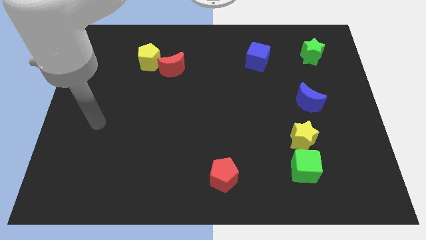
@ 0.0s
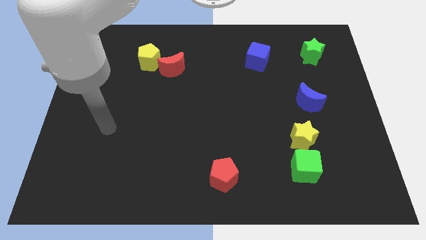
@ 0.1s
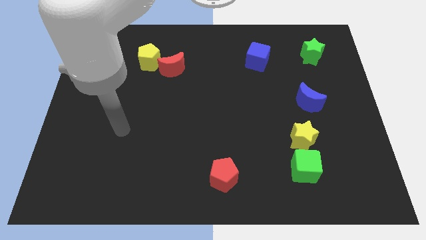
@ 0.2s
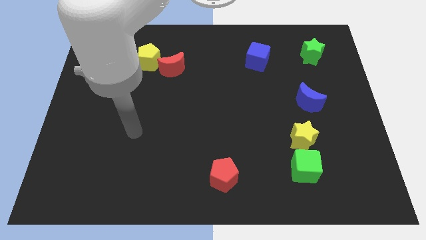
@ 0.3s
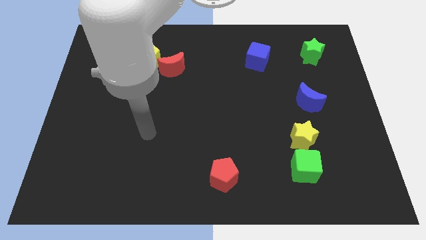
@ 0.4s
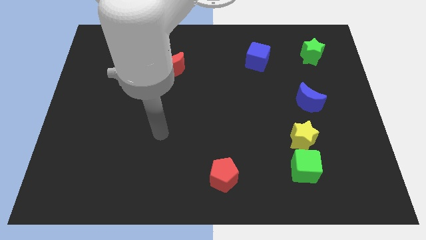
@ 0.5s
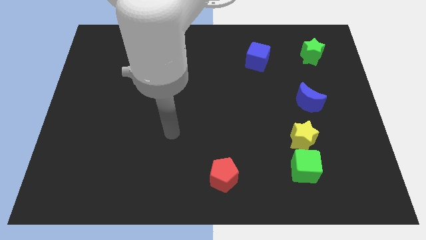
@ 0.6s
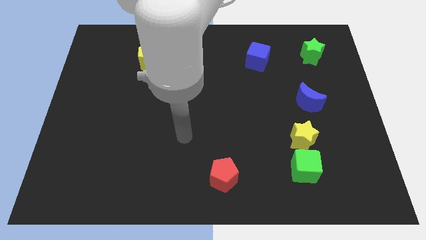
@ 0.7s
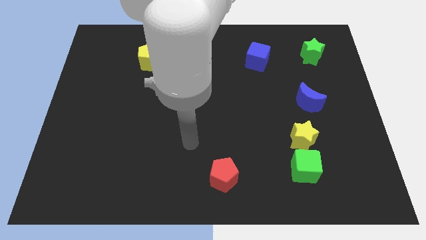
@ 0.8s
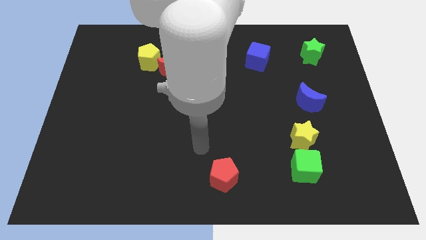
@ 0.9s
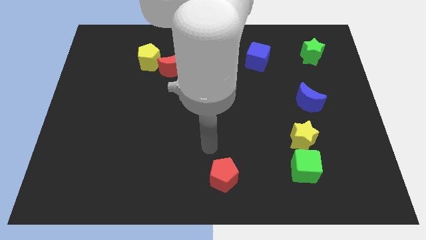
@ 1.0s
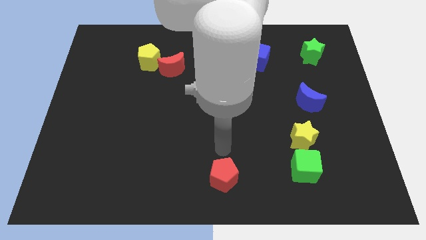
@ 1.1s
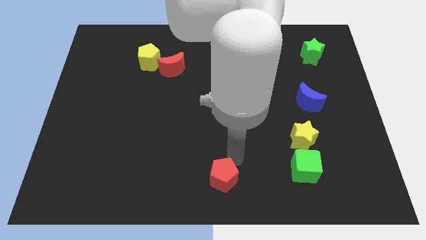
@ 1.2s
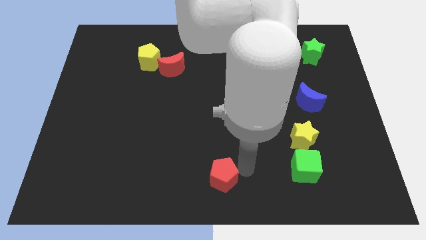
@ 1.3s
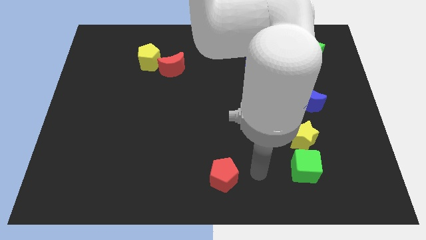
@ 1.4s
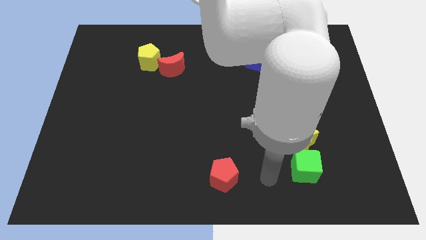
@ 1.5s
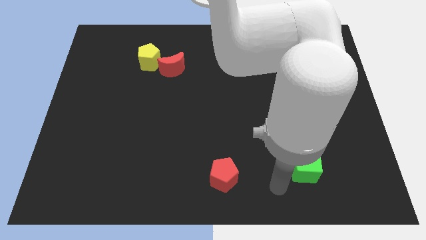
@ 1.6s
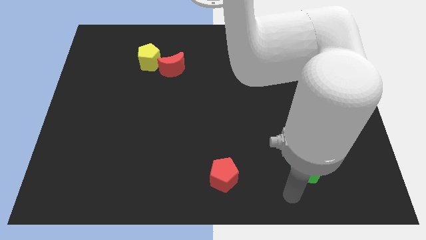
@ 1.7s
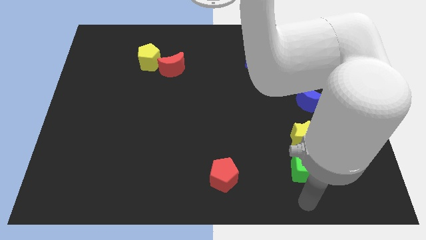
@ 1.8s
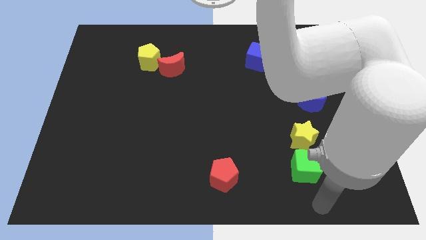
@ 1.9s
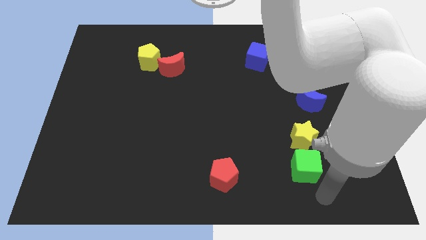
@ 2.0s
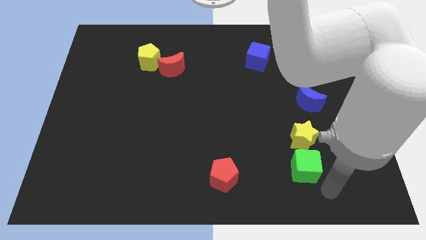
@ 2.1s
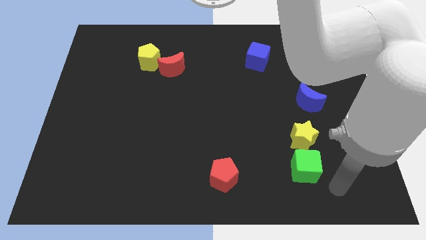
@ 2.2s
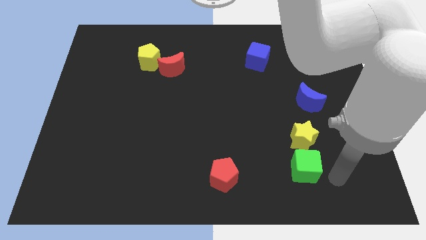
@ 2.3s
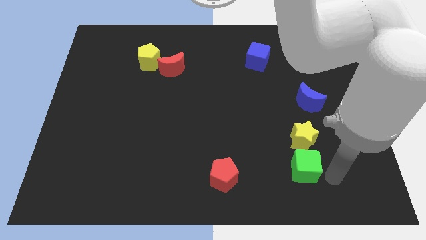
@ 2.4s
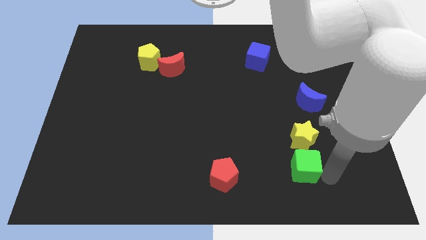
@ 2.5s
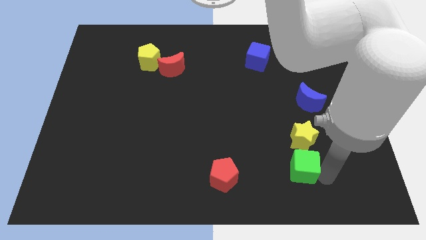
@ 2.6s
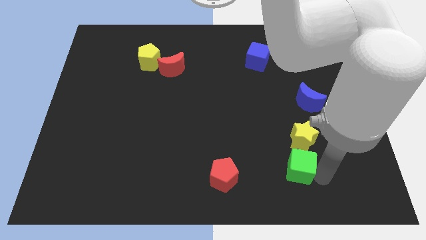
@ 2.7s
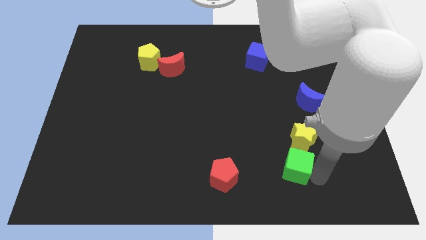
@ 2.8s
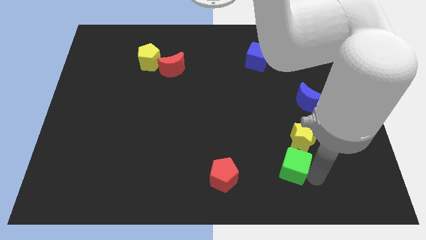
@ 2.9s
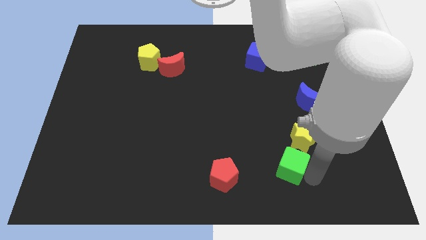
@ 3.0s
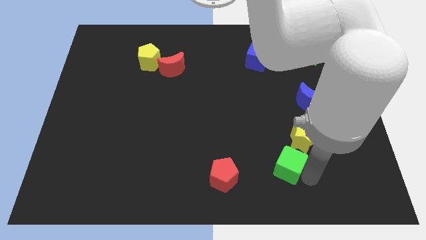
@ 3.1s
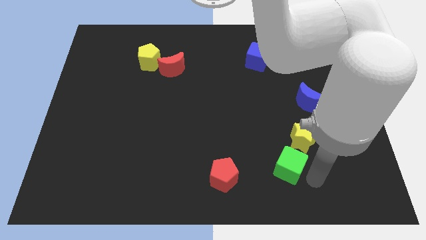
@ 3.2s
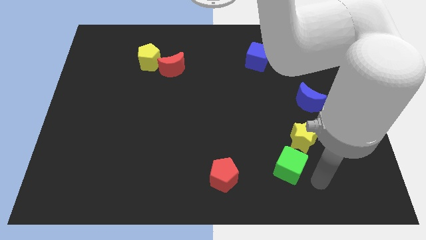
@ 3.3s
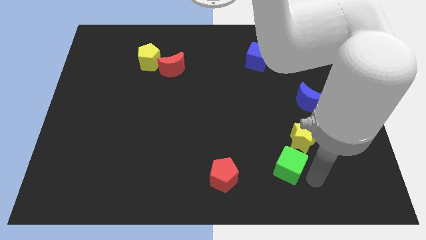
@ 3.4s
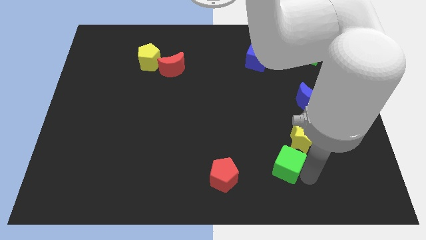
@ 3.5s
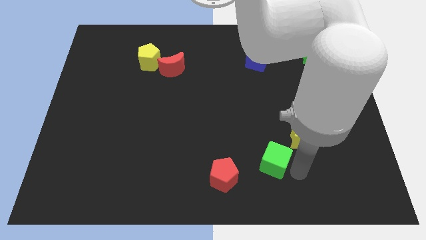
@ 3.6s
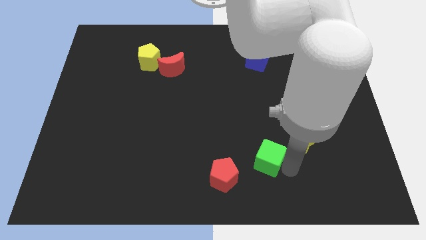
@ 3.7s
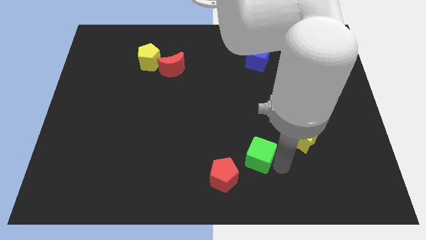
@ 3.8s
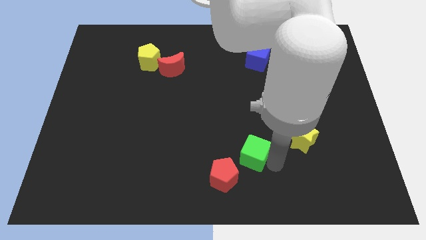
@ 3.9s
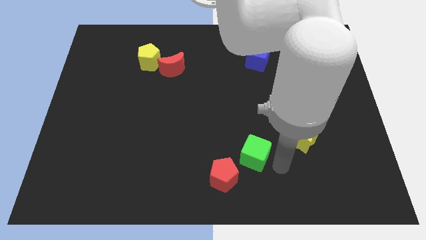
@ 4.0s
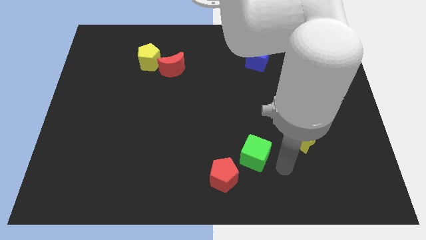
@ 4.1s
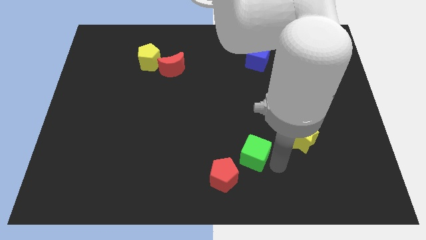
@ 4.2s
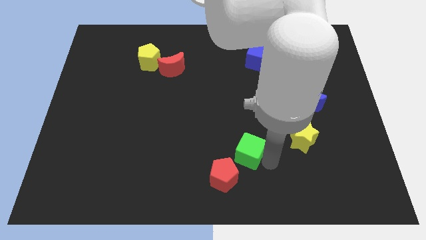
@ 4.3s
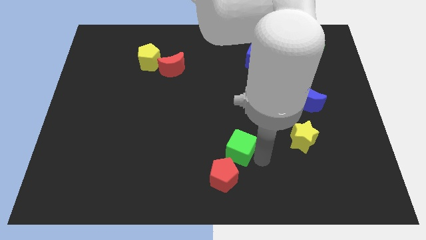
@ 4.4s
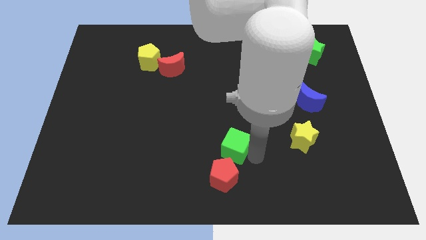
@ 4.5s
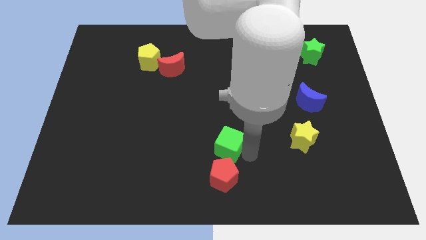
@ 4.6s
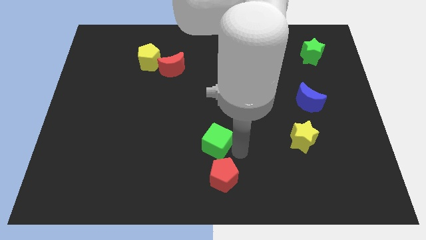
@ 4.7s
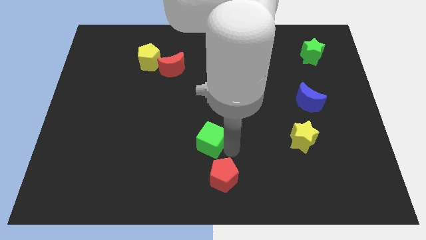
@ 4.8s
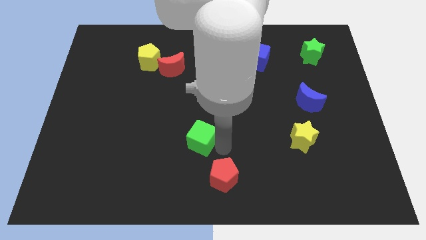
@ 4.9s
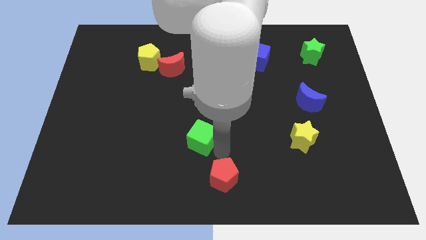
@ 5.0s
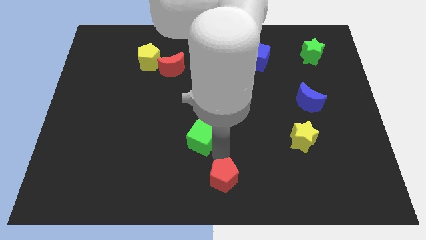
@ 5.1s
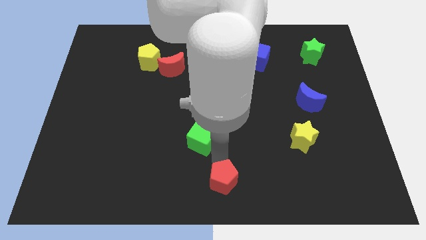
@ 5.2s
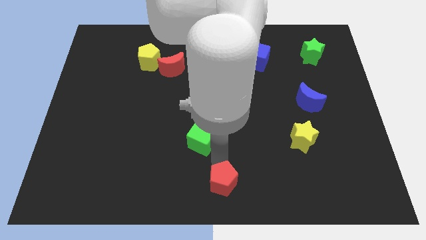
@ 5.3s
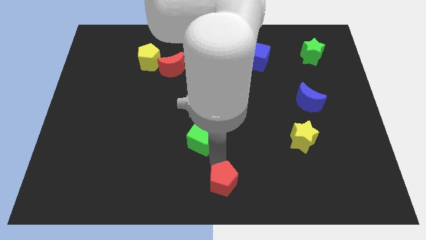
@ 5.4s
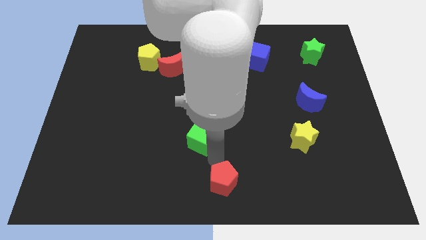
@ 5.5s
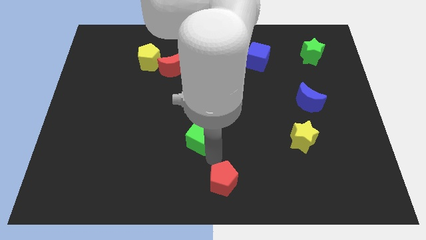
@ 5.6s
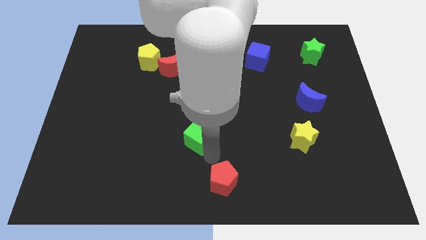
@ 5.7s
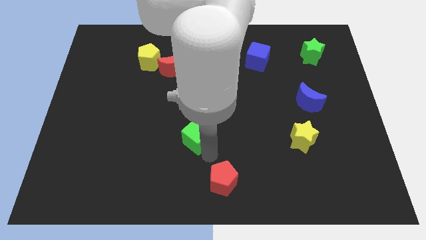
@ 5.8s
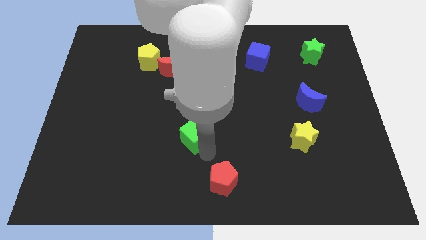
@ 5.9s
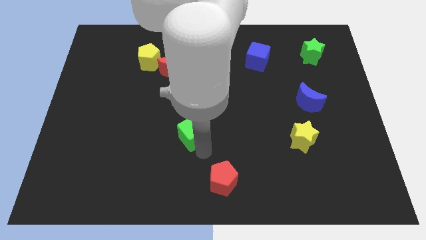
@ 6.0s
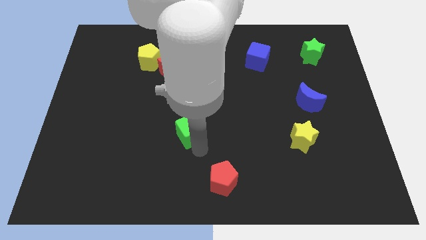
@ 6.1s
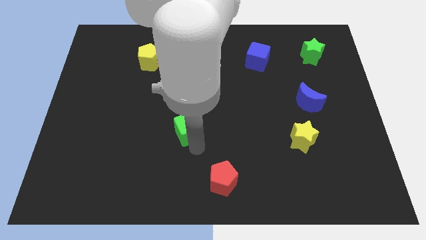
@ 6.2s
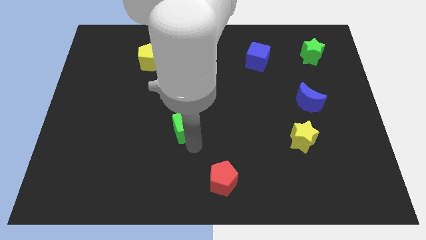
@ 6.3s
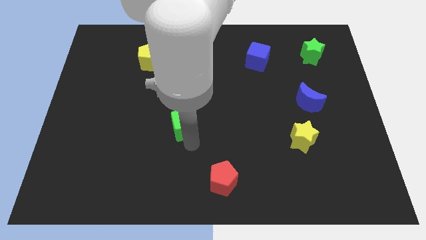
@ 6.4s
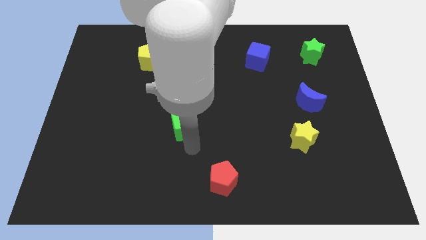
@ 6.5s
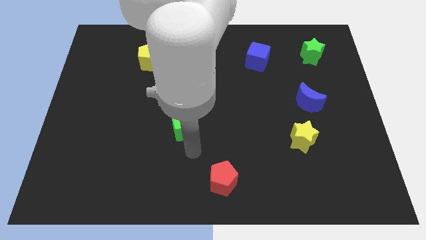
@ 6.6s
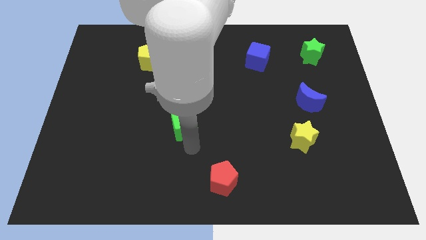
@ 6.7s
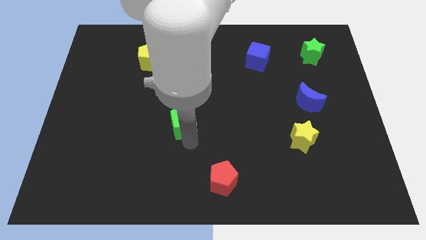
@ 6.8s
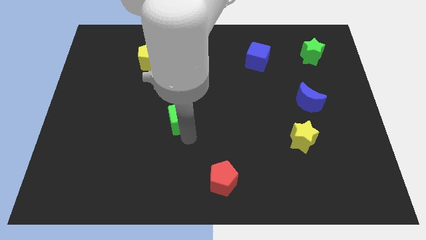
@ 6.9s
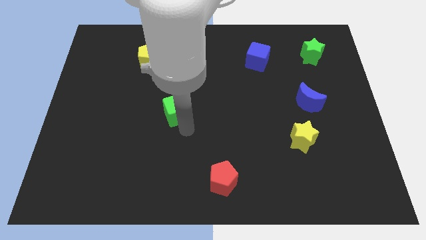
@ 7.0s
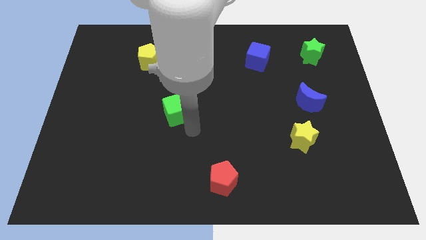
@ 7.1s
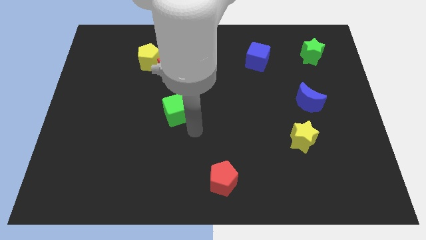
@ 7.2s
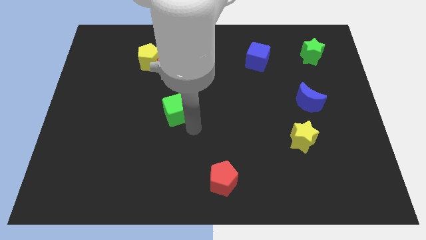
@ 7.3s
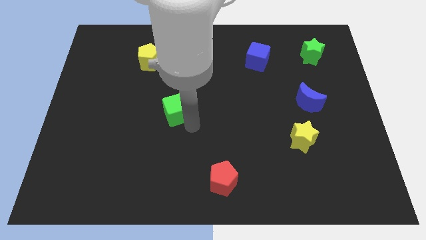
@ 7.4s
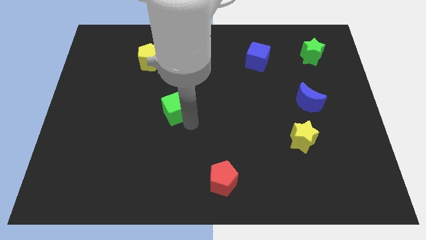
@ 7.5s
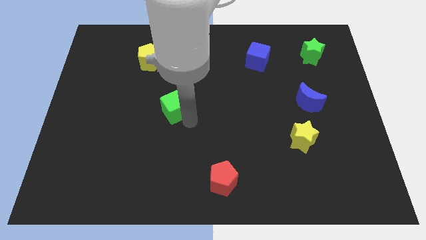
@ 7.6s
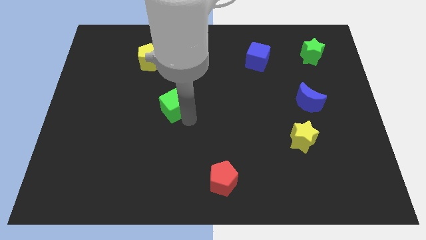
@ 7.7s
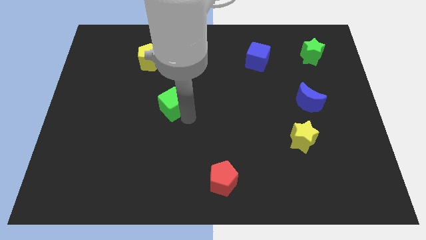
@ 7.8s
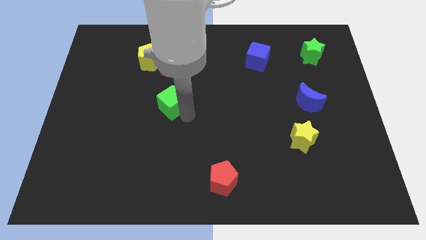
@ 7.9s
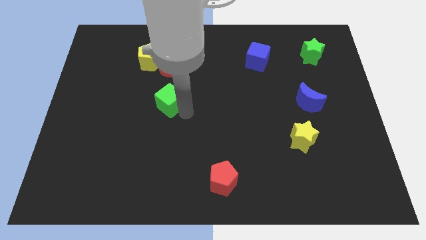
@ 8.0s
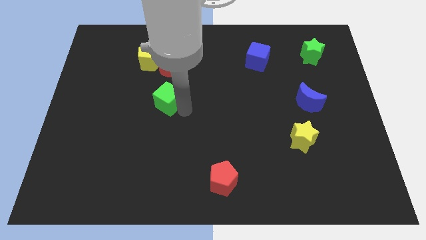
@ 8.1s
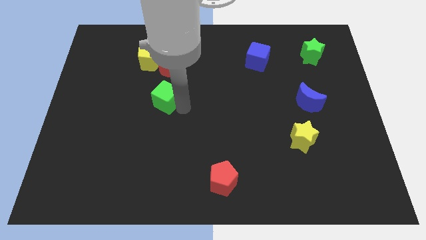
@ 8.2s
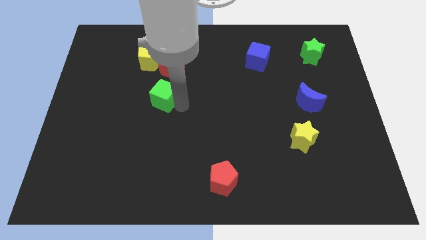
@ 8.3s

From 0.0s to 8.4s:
put the green cube to the bottom side of the yellow pentagon
